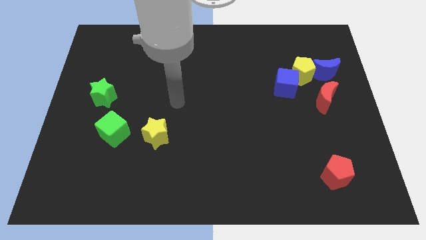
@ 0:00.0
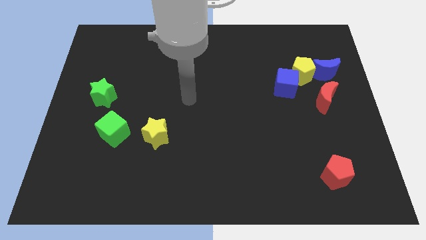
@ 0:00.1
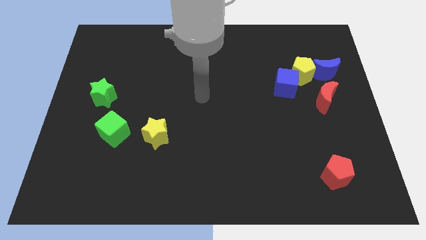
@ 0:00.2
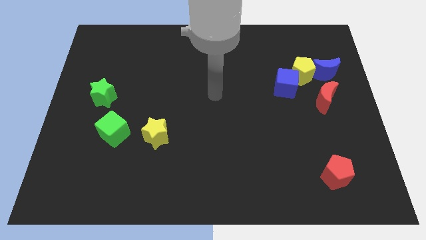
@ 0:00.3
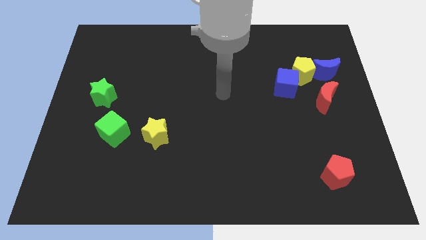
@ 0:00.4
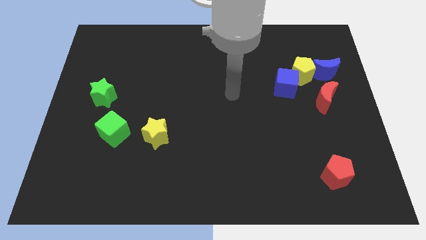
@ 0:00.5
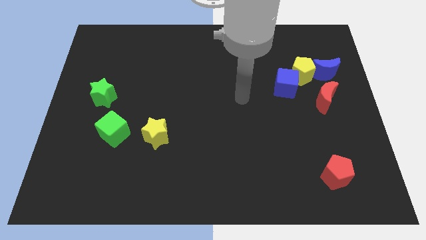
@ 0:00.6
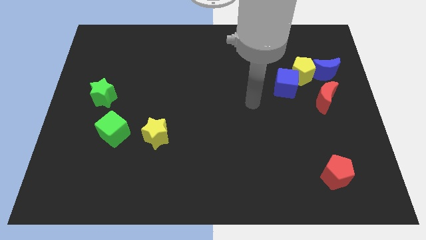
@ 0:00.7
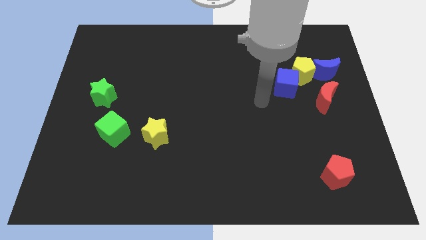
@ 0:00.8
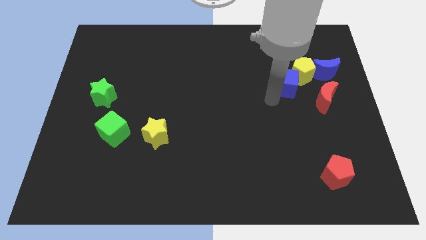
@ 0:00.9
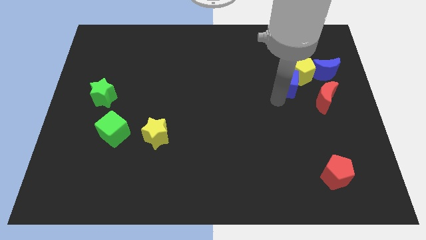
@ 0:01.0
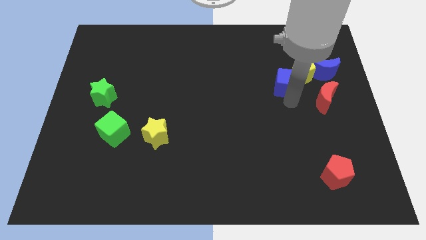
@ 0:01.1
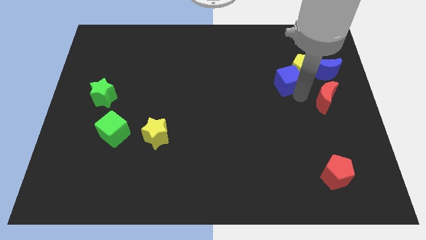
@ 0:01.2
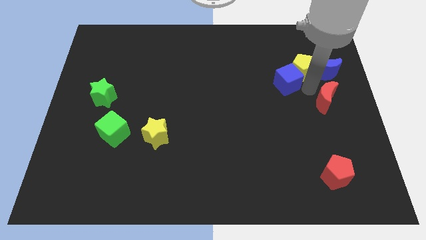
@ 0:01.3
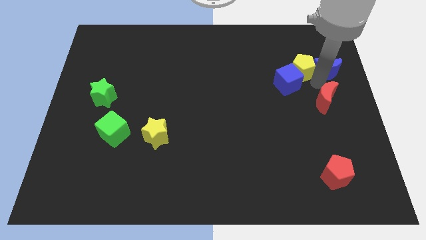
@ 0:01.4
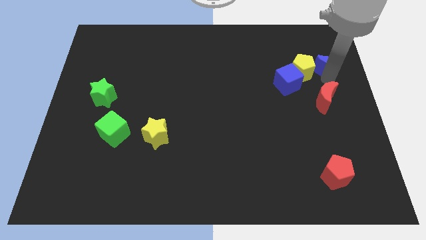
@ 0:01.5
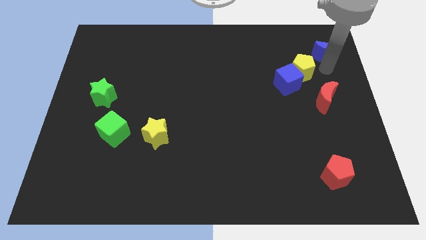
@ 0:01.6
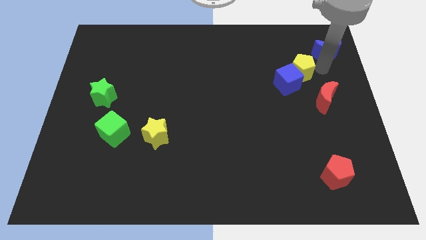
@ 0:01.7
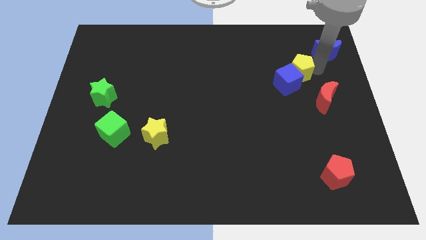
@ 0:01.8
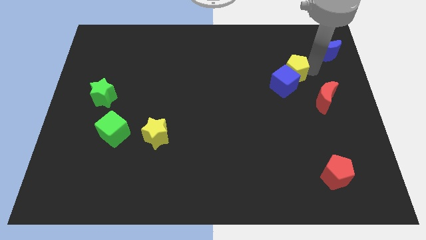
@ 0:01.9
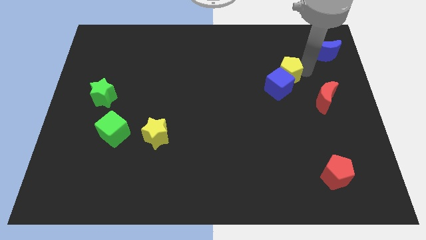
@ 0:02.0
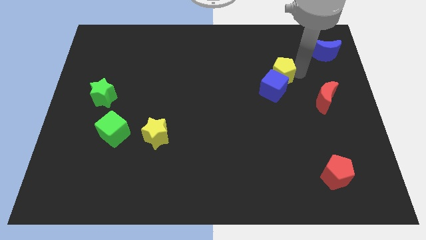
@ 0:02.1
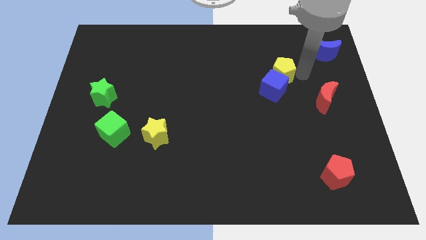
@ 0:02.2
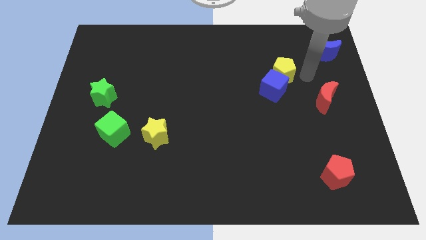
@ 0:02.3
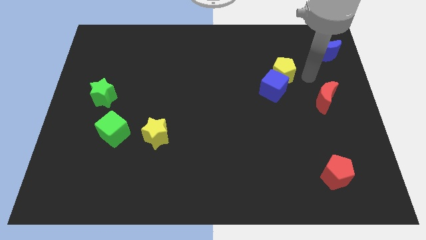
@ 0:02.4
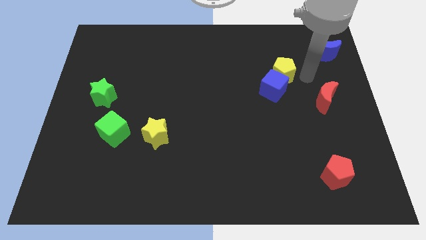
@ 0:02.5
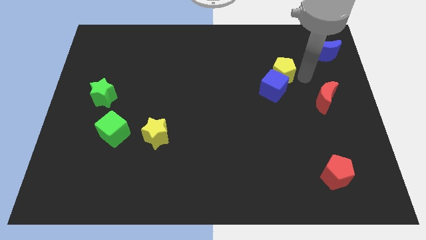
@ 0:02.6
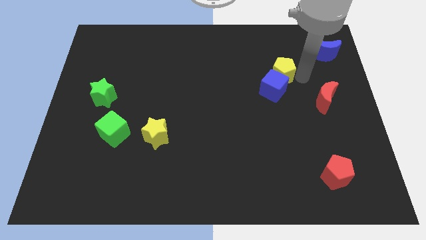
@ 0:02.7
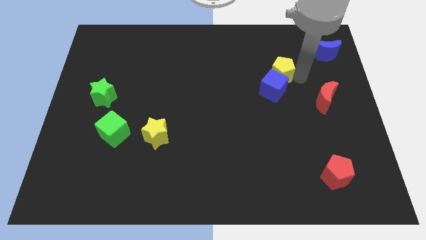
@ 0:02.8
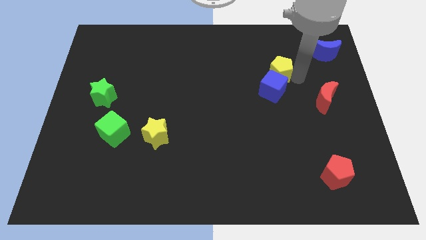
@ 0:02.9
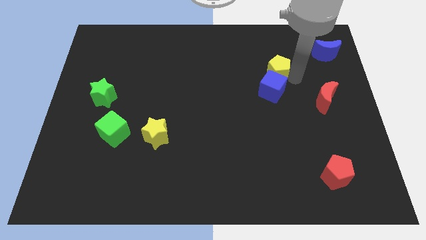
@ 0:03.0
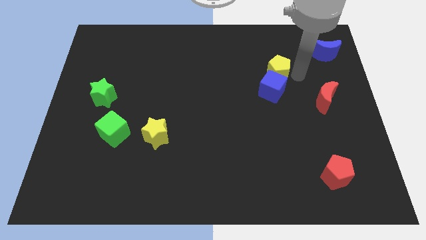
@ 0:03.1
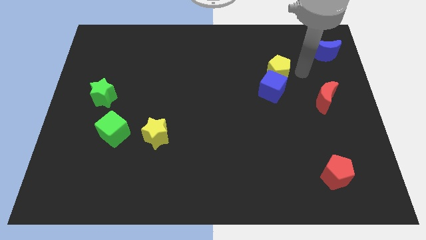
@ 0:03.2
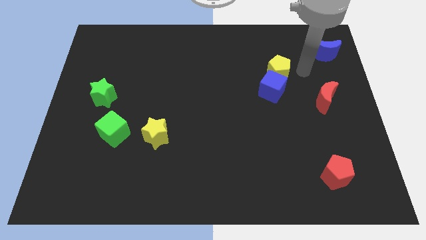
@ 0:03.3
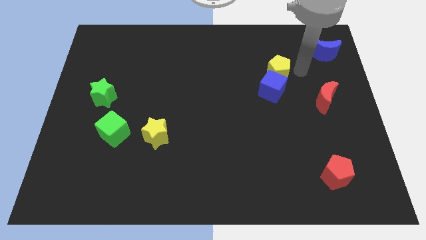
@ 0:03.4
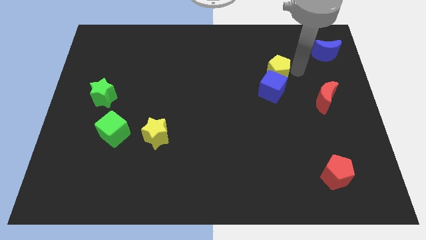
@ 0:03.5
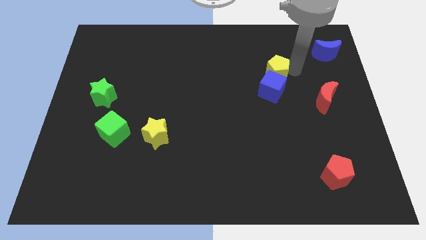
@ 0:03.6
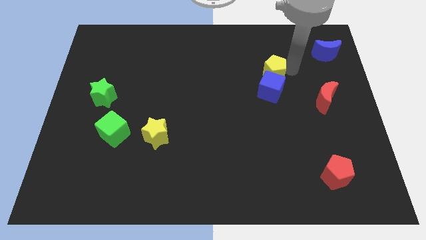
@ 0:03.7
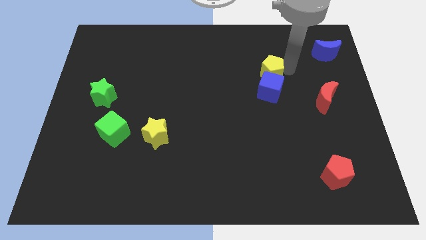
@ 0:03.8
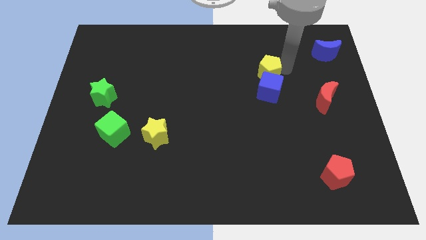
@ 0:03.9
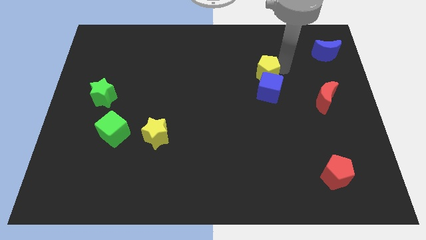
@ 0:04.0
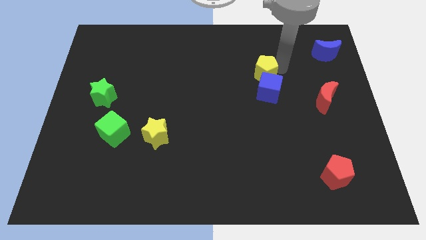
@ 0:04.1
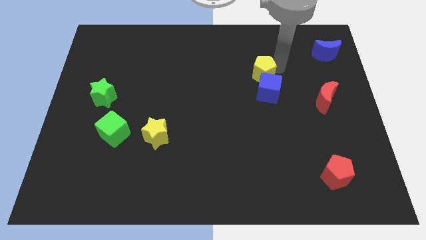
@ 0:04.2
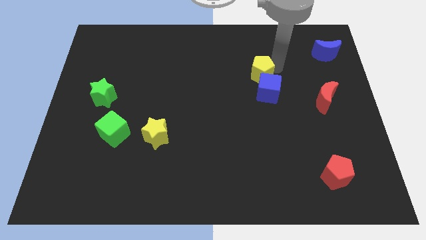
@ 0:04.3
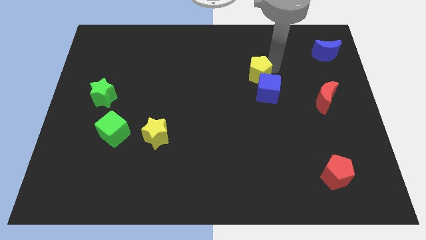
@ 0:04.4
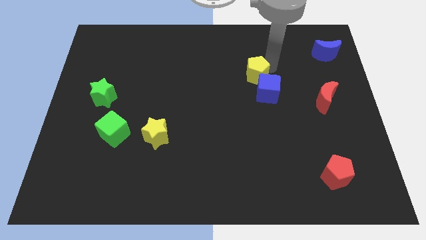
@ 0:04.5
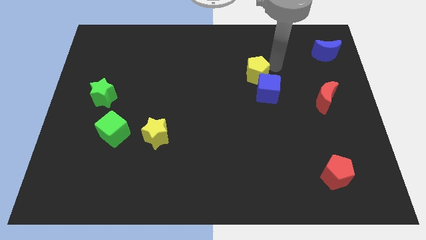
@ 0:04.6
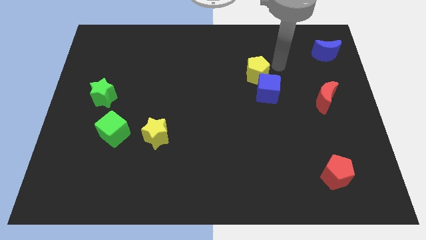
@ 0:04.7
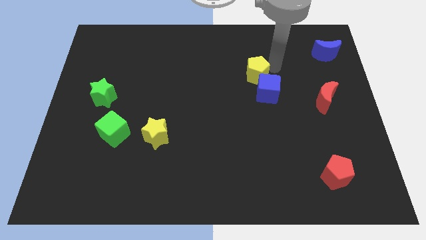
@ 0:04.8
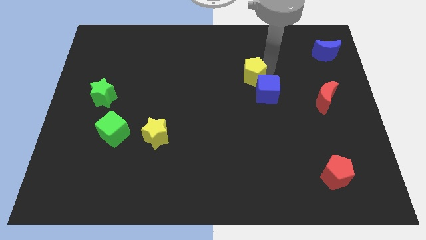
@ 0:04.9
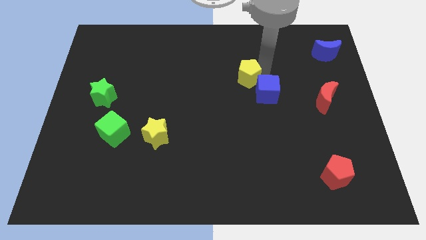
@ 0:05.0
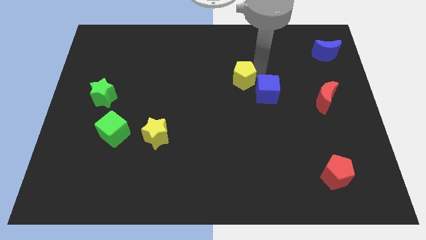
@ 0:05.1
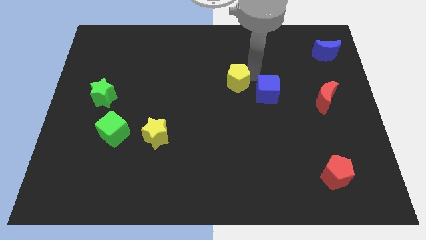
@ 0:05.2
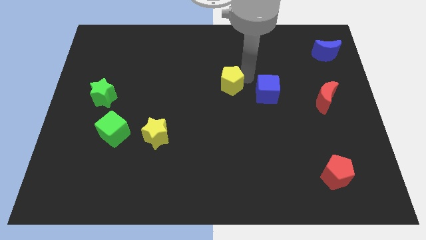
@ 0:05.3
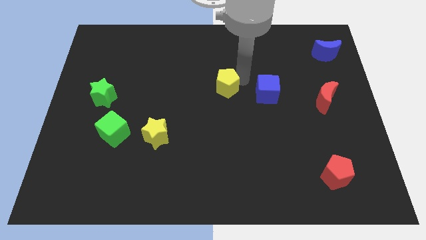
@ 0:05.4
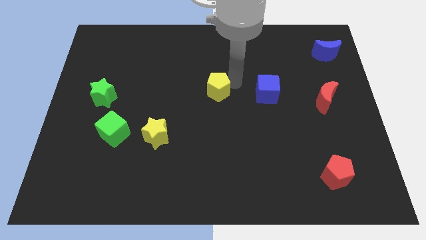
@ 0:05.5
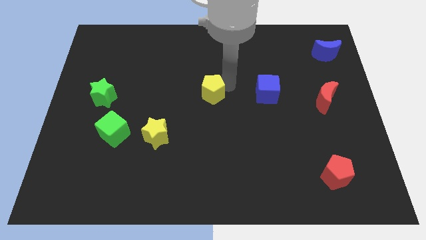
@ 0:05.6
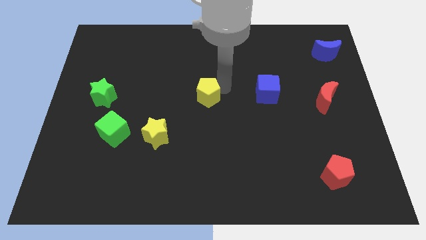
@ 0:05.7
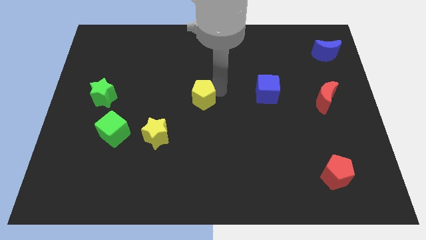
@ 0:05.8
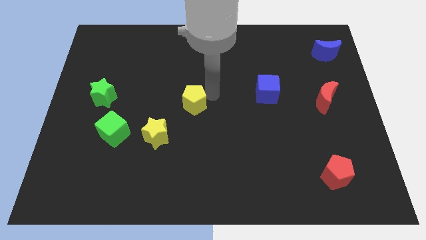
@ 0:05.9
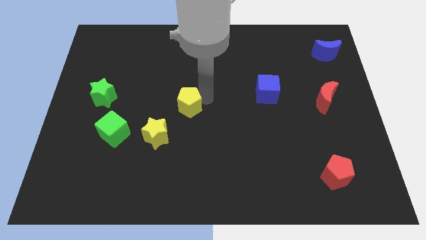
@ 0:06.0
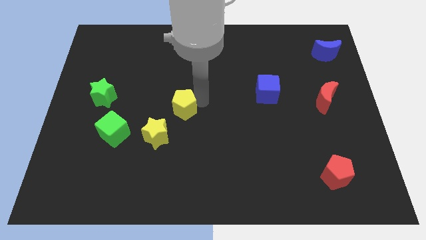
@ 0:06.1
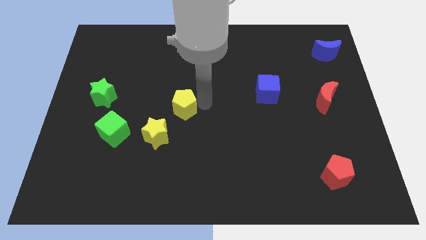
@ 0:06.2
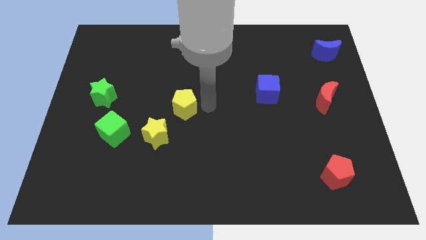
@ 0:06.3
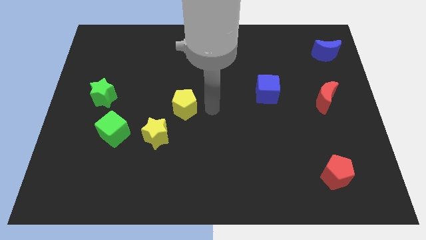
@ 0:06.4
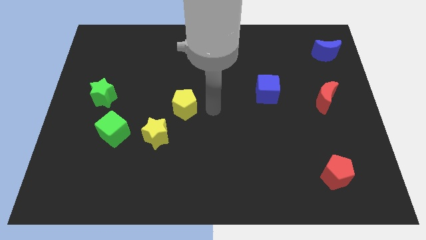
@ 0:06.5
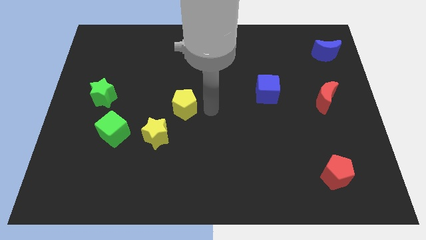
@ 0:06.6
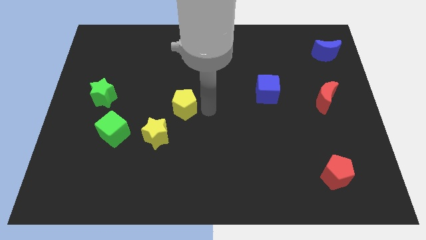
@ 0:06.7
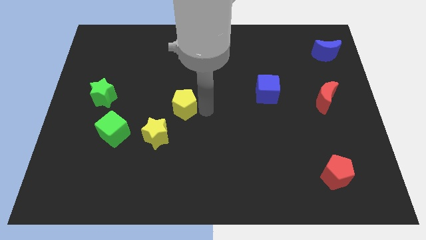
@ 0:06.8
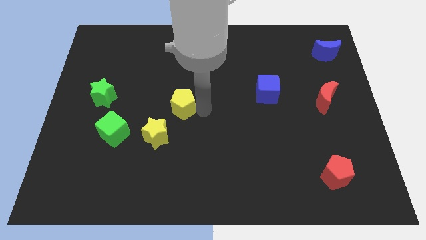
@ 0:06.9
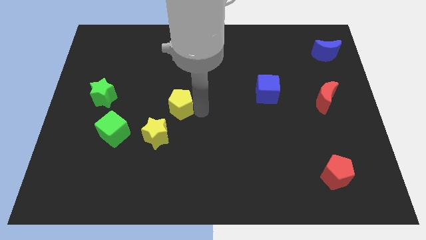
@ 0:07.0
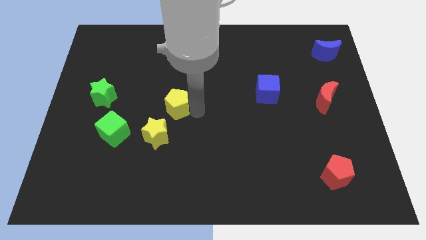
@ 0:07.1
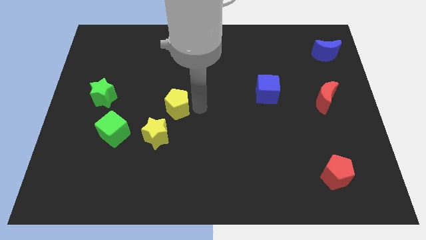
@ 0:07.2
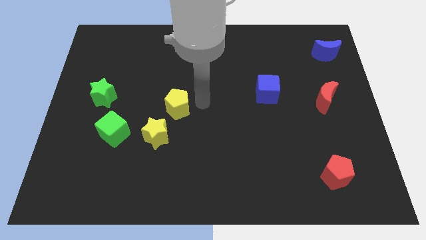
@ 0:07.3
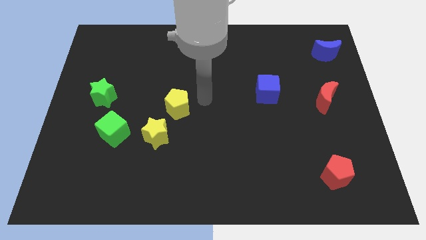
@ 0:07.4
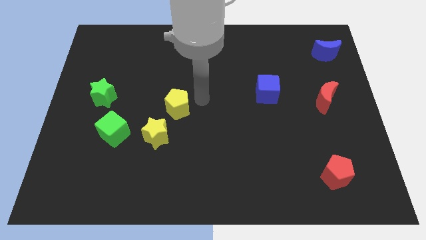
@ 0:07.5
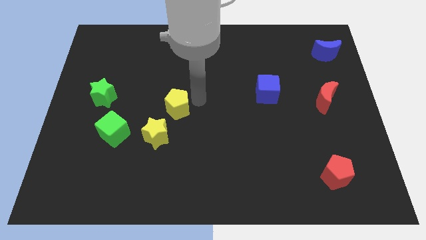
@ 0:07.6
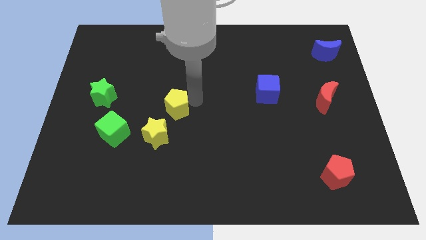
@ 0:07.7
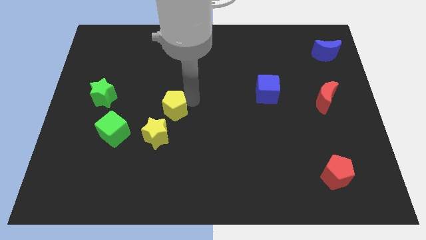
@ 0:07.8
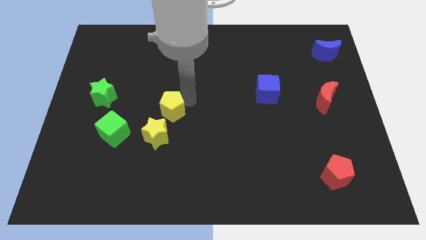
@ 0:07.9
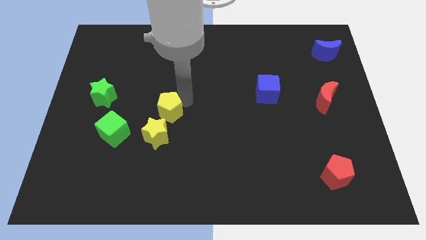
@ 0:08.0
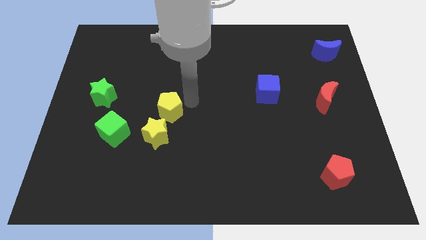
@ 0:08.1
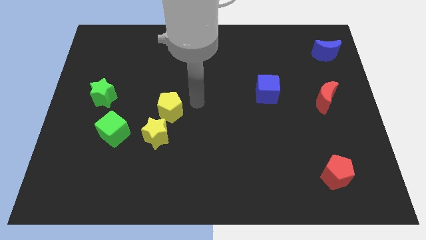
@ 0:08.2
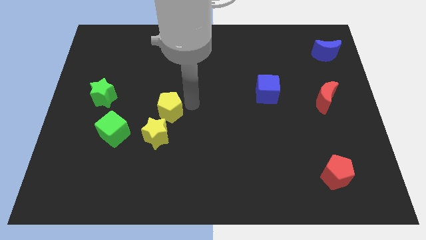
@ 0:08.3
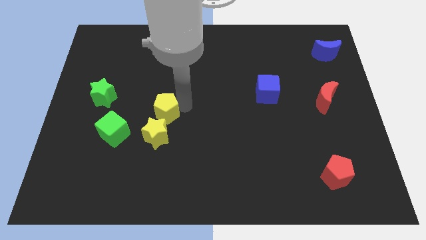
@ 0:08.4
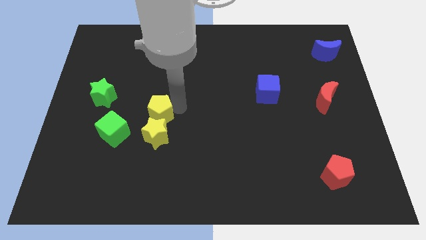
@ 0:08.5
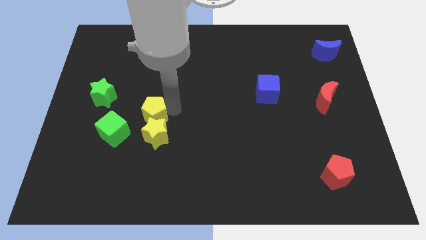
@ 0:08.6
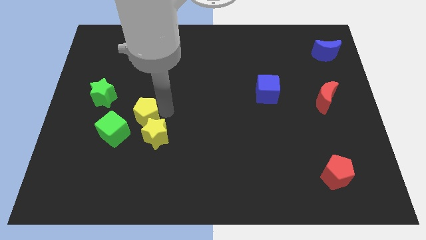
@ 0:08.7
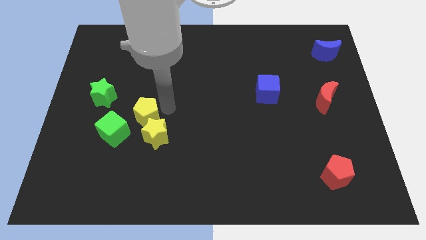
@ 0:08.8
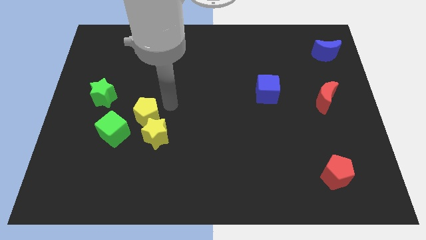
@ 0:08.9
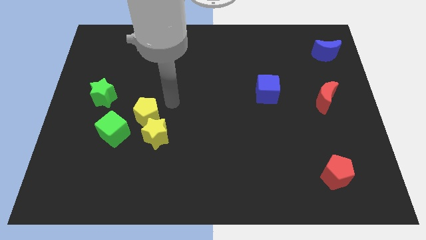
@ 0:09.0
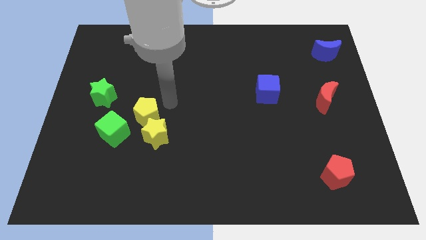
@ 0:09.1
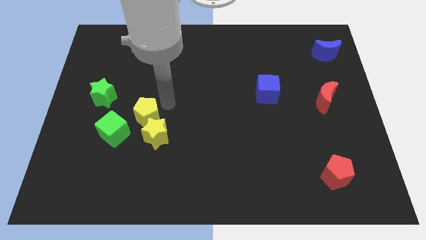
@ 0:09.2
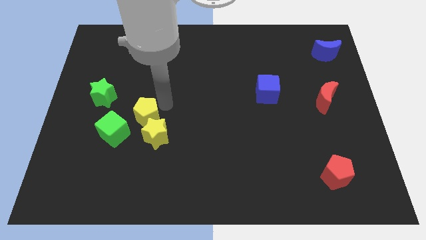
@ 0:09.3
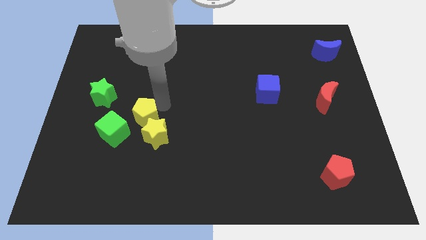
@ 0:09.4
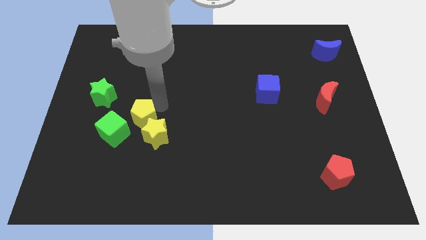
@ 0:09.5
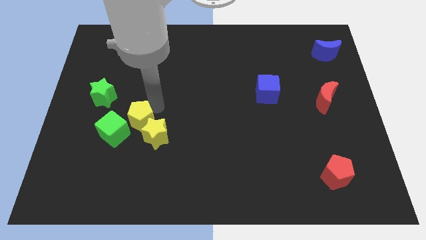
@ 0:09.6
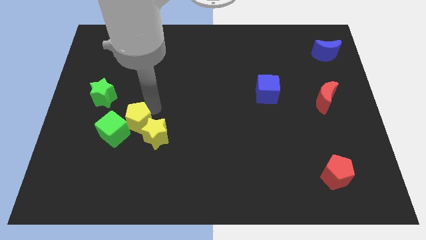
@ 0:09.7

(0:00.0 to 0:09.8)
push the yellow pentagon to the green cube
